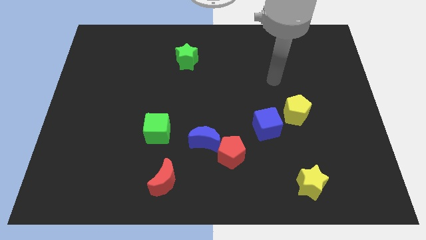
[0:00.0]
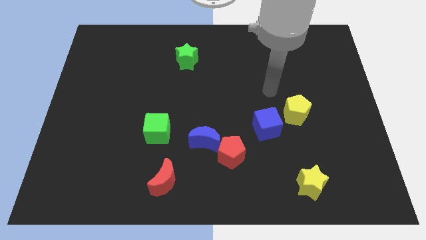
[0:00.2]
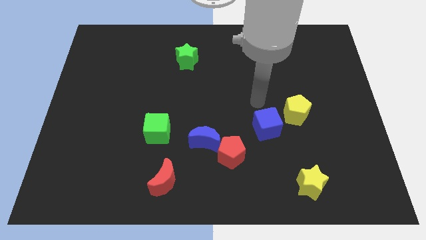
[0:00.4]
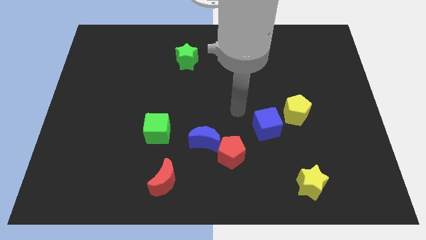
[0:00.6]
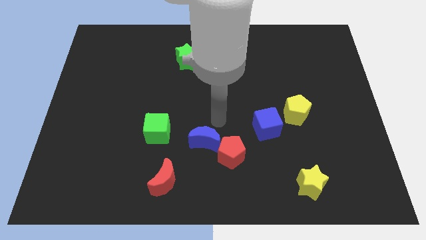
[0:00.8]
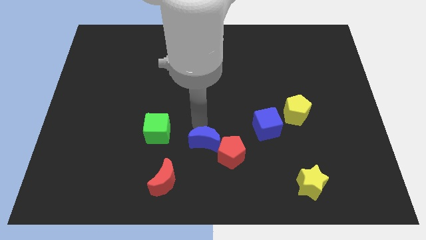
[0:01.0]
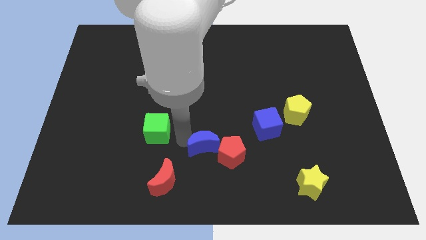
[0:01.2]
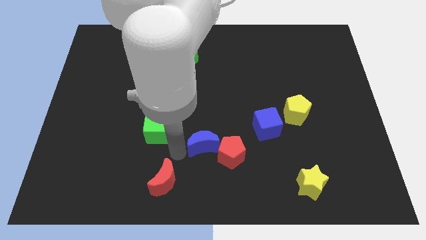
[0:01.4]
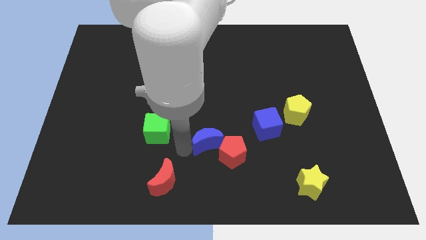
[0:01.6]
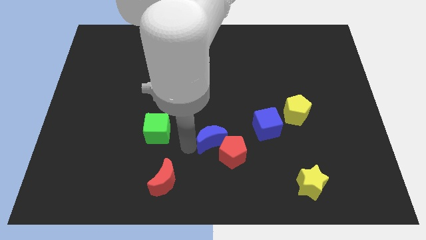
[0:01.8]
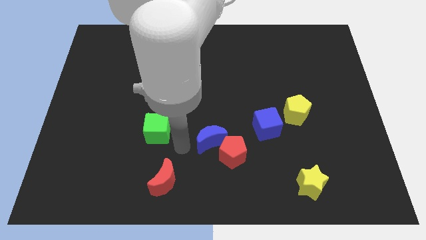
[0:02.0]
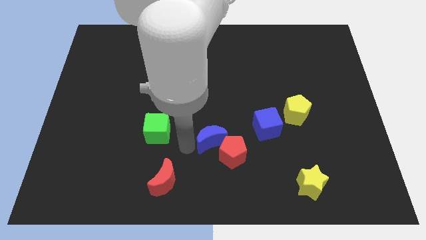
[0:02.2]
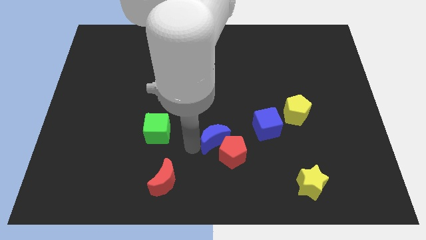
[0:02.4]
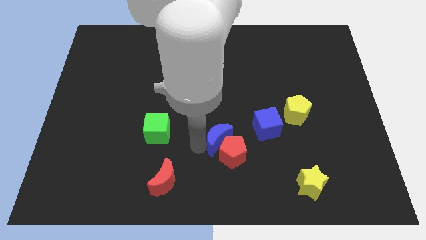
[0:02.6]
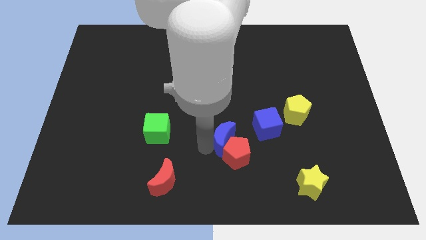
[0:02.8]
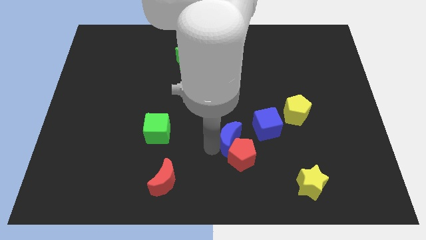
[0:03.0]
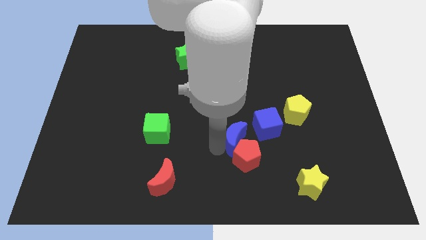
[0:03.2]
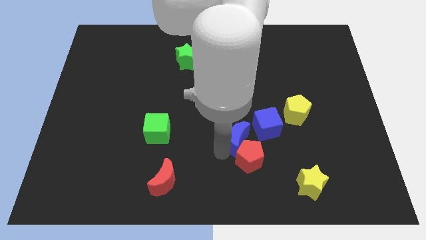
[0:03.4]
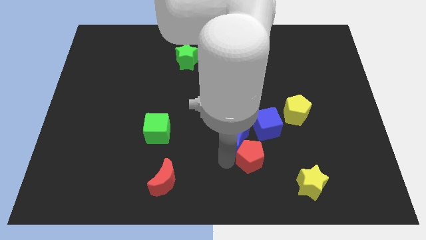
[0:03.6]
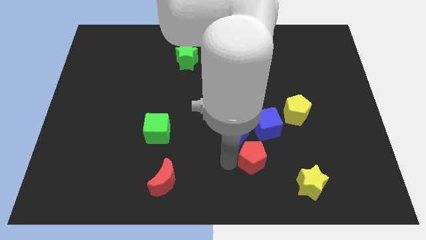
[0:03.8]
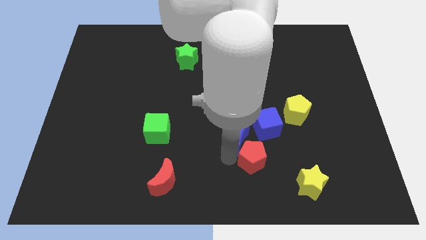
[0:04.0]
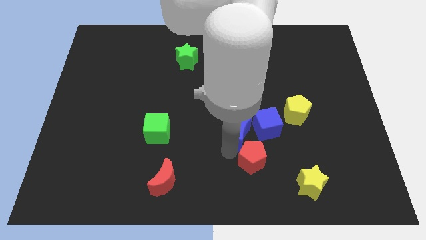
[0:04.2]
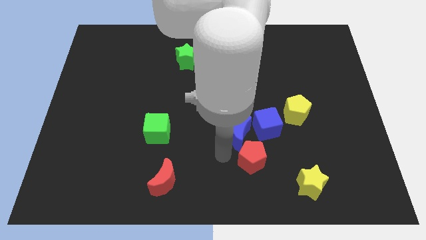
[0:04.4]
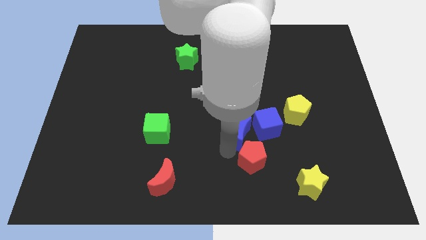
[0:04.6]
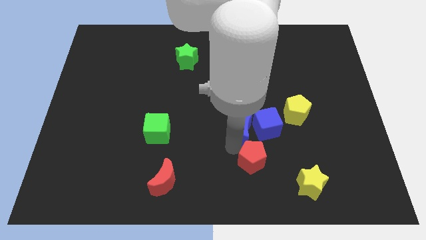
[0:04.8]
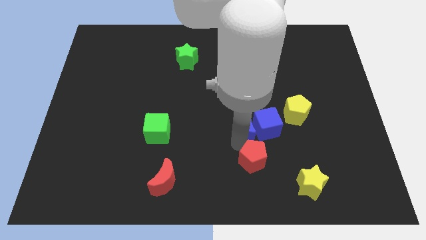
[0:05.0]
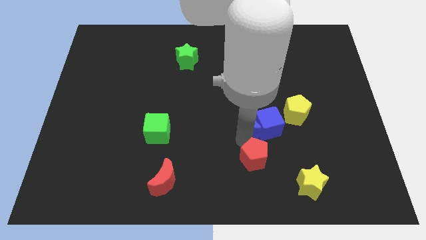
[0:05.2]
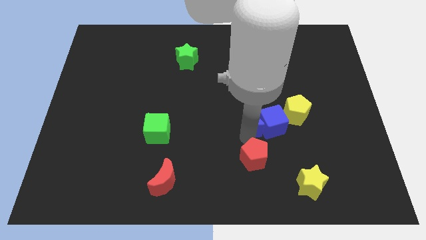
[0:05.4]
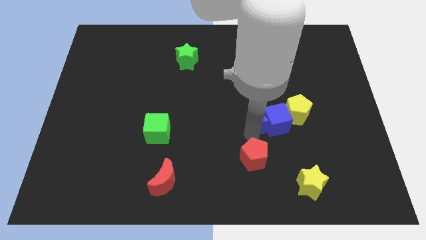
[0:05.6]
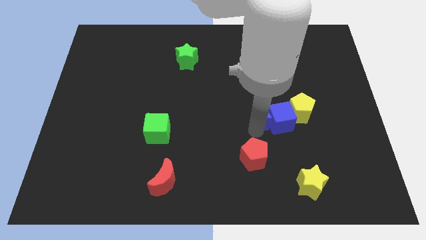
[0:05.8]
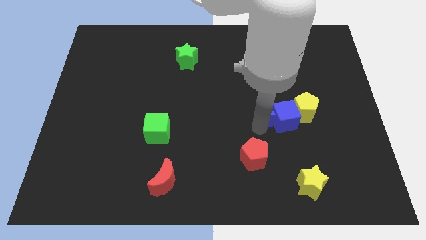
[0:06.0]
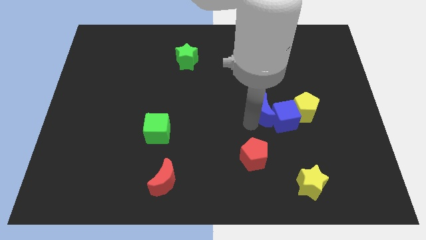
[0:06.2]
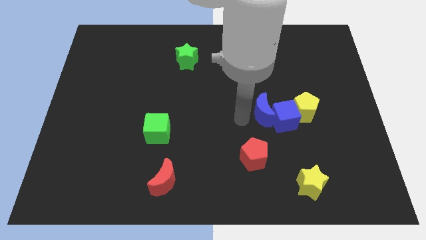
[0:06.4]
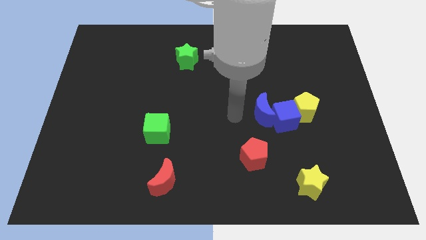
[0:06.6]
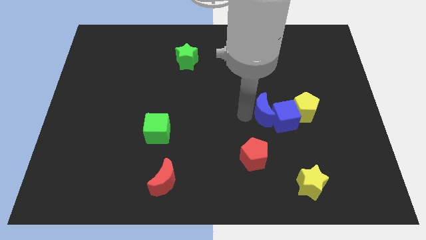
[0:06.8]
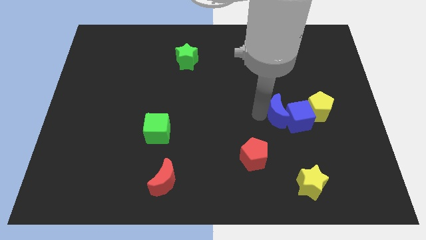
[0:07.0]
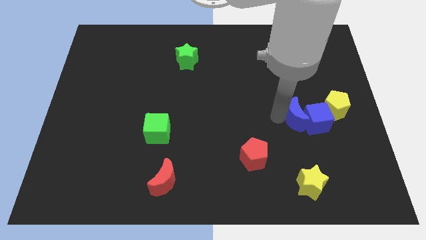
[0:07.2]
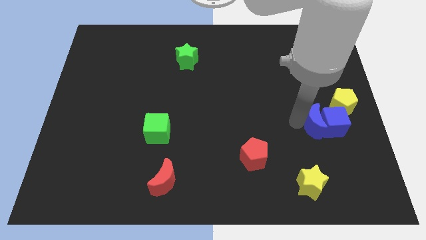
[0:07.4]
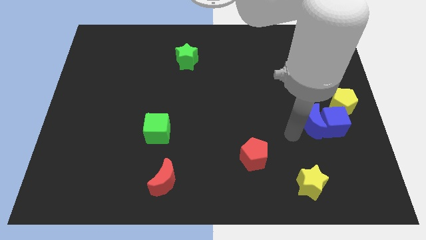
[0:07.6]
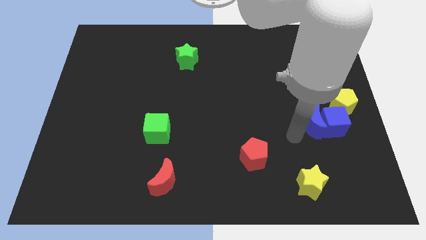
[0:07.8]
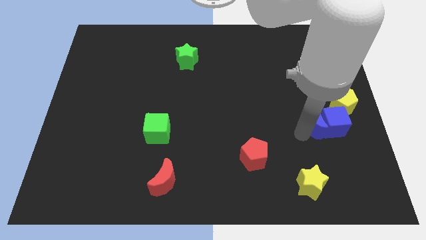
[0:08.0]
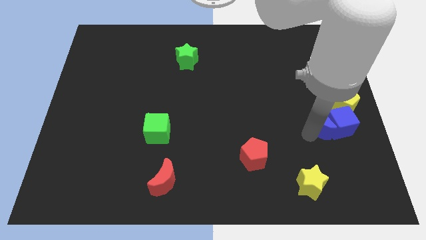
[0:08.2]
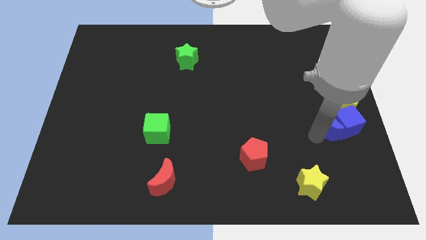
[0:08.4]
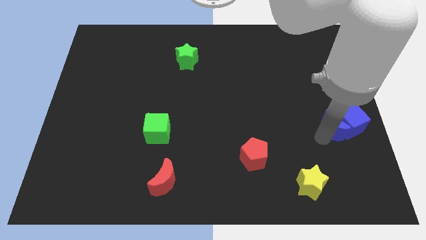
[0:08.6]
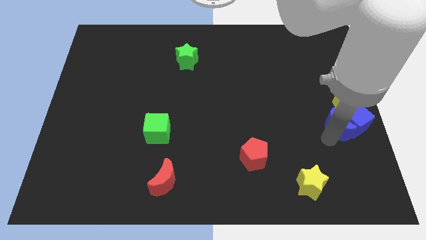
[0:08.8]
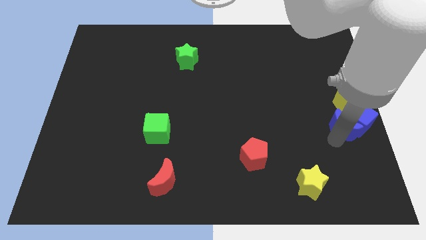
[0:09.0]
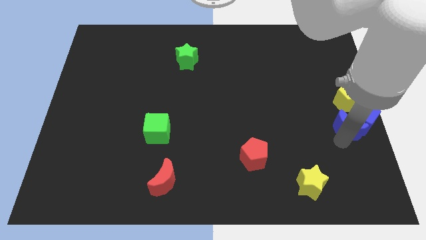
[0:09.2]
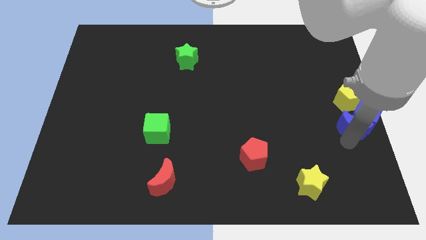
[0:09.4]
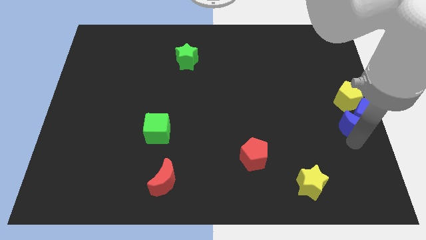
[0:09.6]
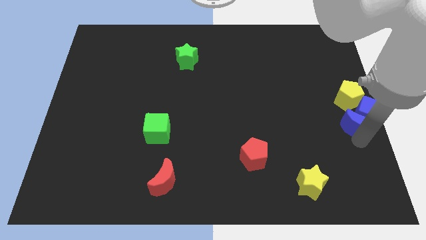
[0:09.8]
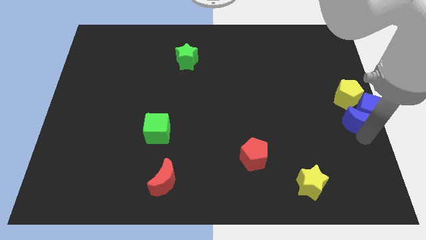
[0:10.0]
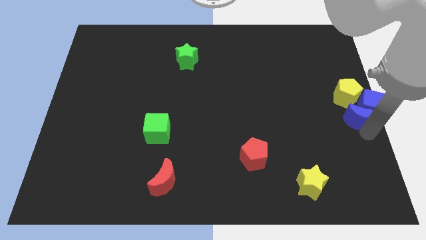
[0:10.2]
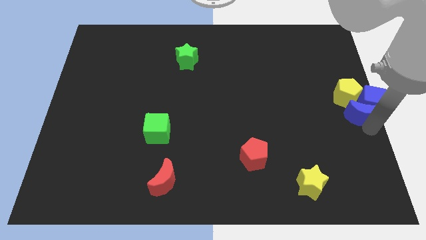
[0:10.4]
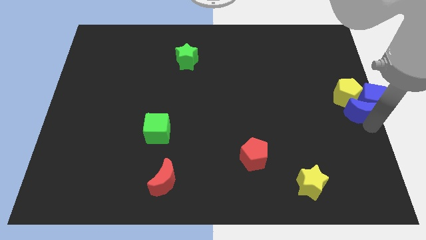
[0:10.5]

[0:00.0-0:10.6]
slide the blue moon close to the yellow pentagon

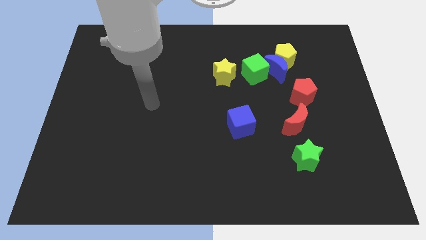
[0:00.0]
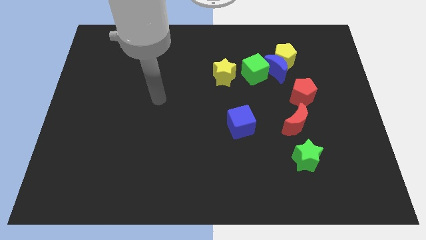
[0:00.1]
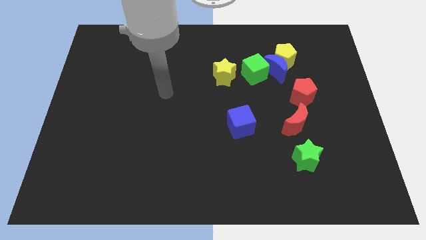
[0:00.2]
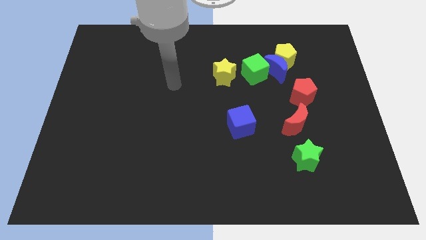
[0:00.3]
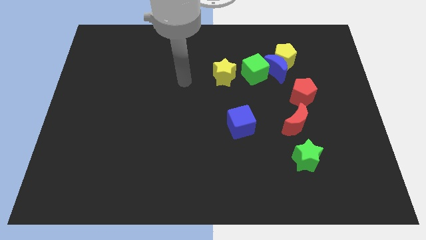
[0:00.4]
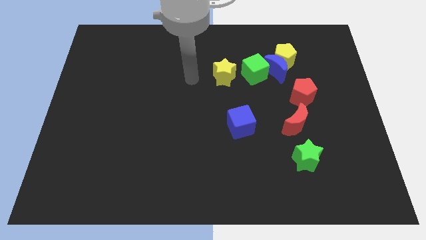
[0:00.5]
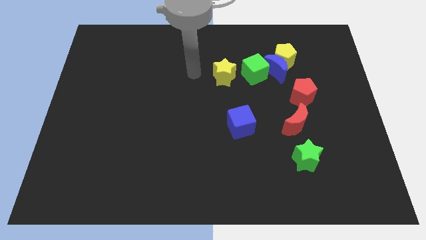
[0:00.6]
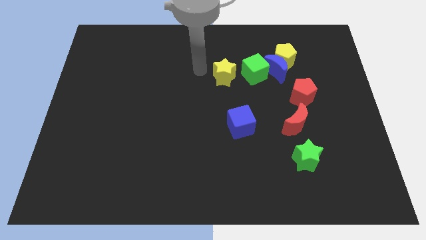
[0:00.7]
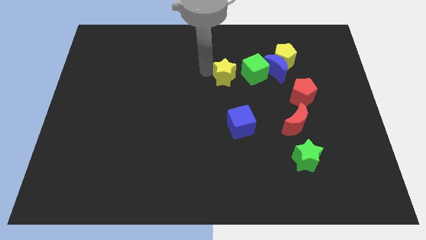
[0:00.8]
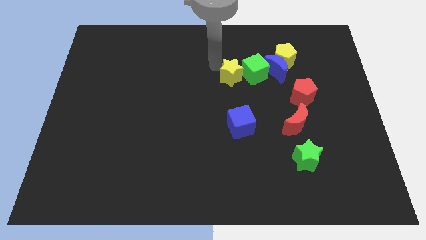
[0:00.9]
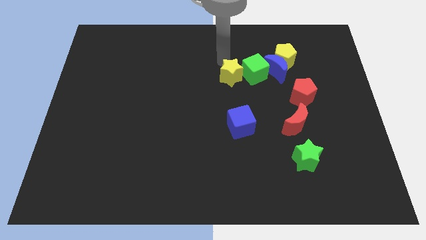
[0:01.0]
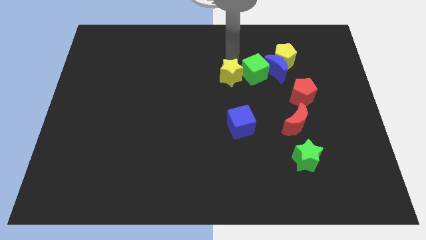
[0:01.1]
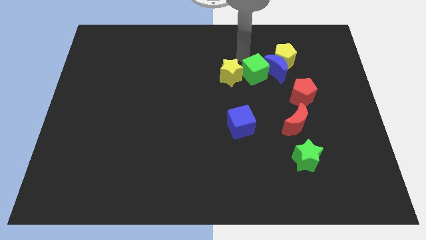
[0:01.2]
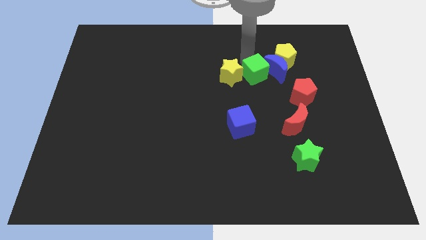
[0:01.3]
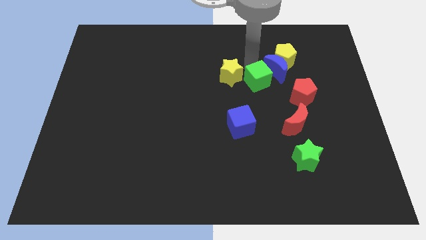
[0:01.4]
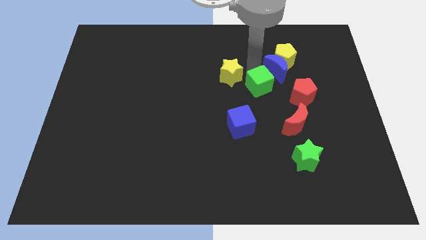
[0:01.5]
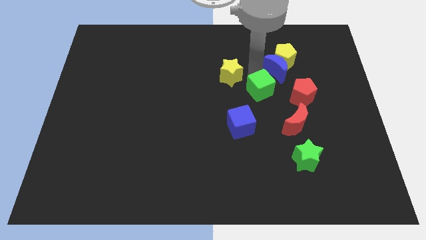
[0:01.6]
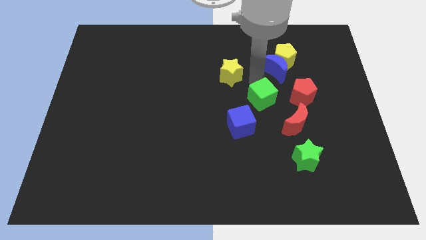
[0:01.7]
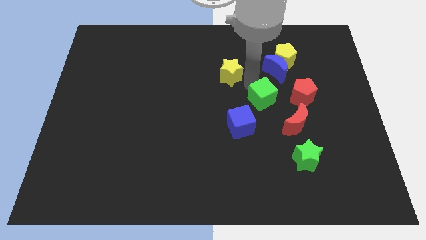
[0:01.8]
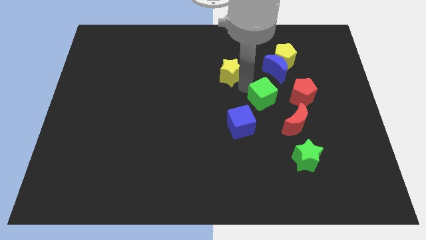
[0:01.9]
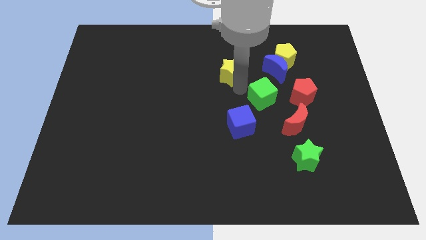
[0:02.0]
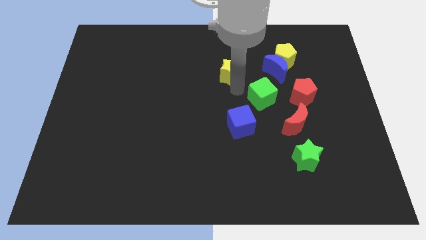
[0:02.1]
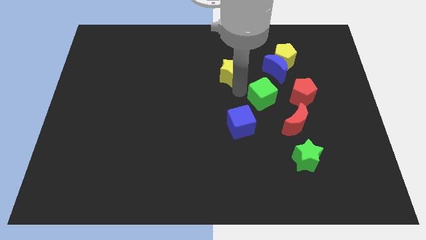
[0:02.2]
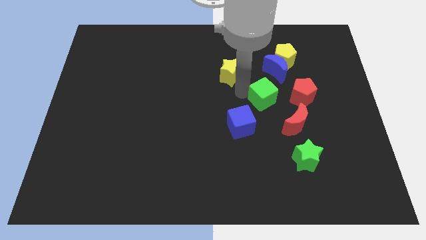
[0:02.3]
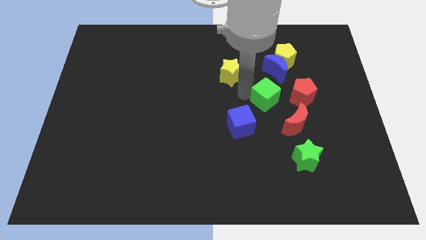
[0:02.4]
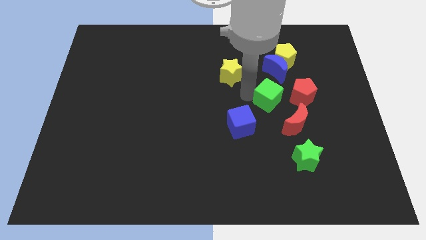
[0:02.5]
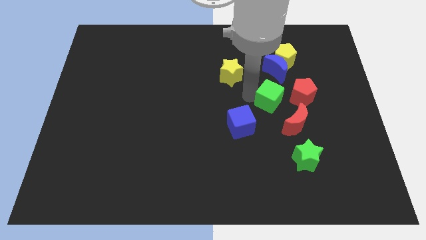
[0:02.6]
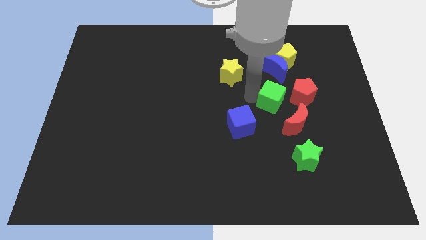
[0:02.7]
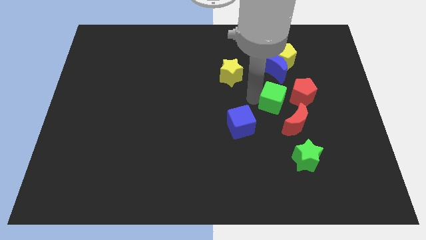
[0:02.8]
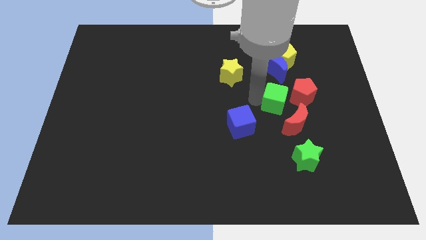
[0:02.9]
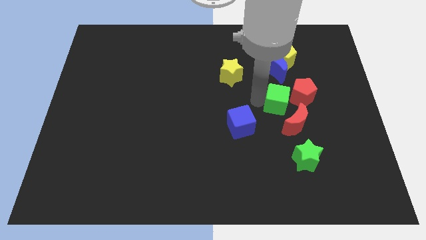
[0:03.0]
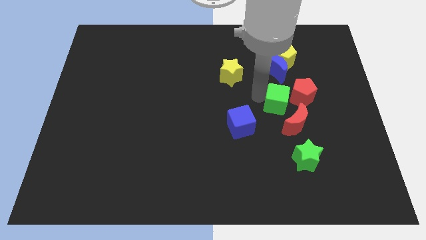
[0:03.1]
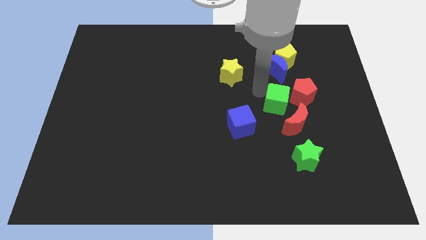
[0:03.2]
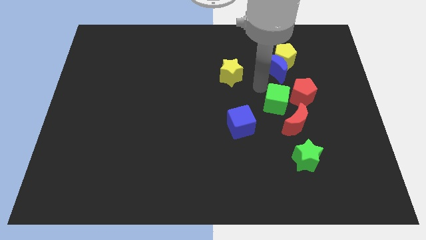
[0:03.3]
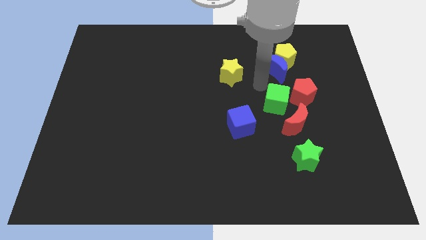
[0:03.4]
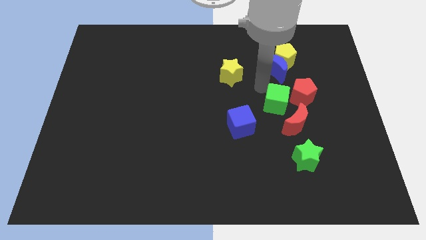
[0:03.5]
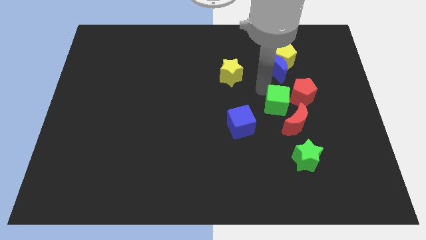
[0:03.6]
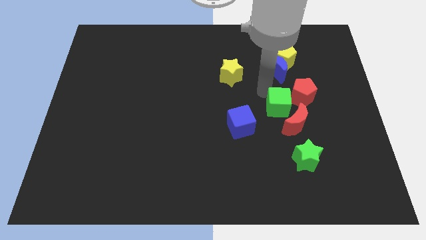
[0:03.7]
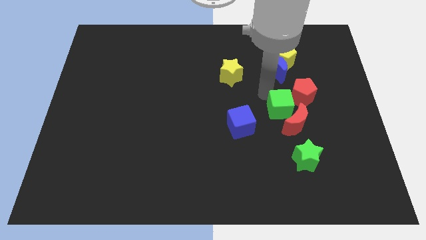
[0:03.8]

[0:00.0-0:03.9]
slide the green cube close to the red moon
